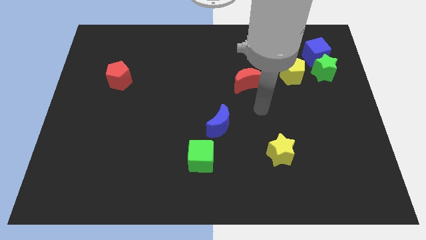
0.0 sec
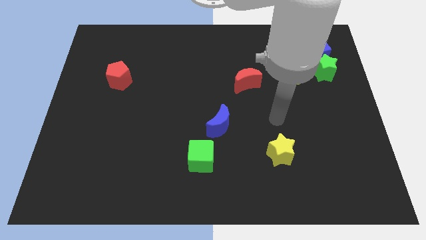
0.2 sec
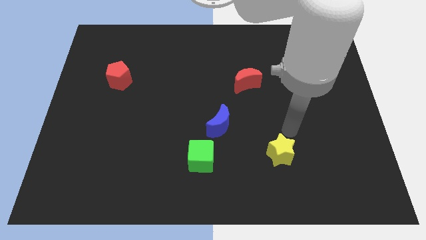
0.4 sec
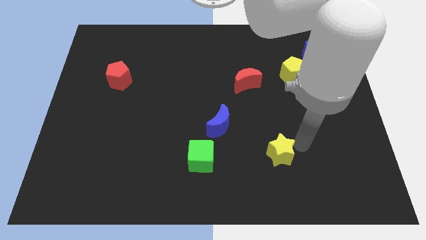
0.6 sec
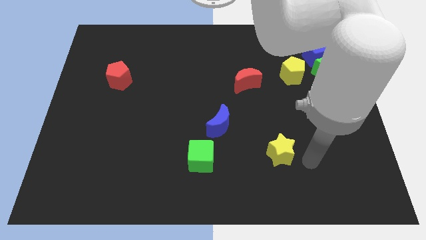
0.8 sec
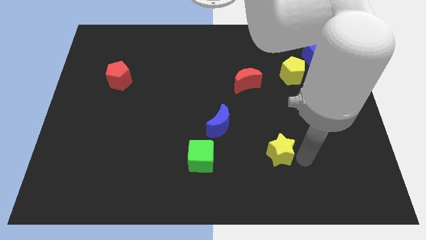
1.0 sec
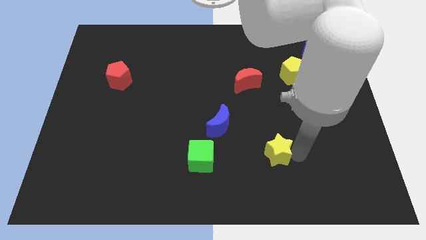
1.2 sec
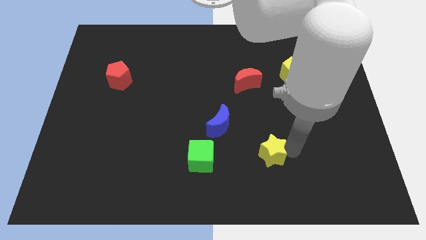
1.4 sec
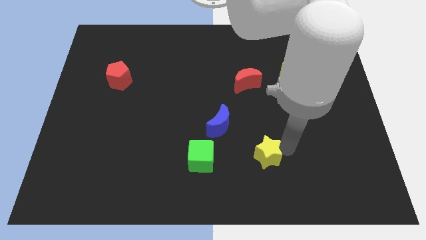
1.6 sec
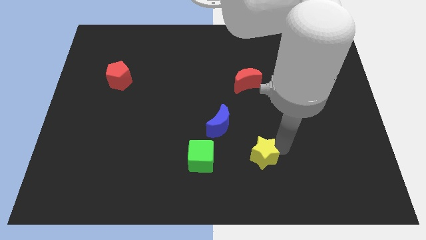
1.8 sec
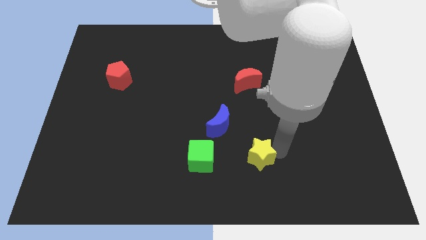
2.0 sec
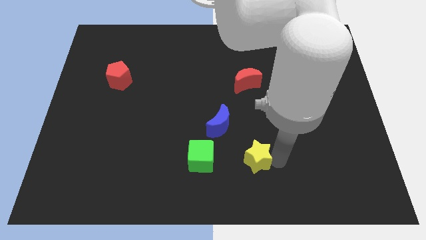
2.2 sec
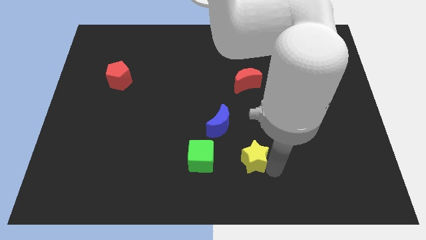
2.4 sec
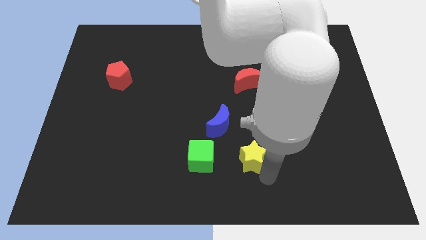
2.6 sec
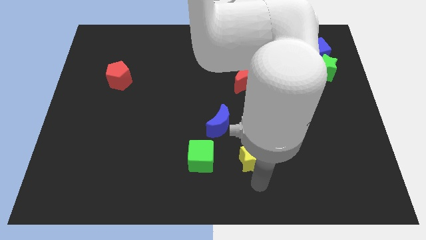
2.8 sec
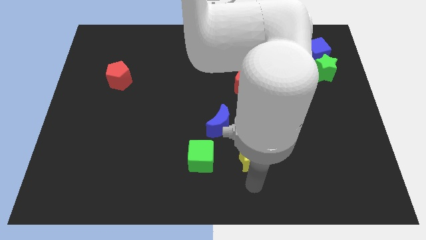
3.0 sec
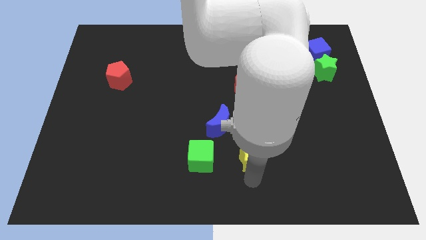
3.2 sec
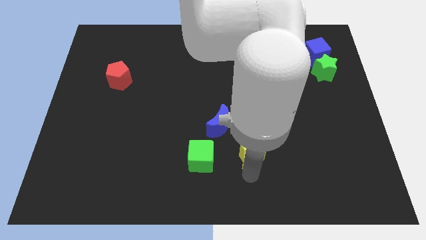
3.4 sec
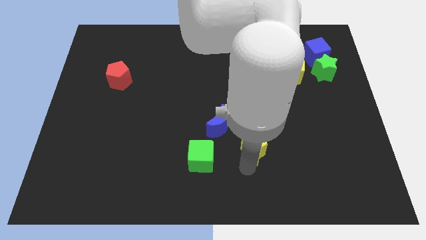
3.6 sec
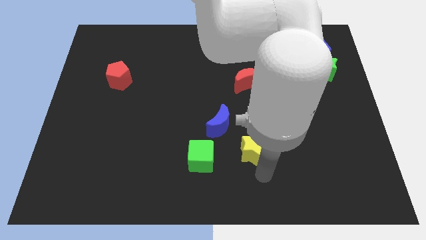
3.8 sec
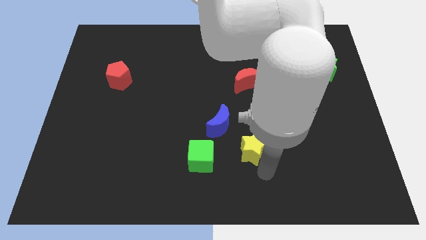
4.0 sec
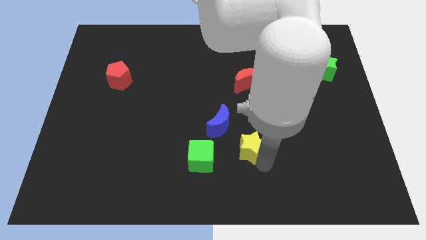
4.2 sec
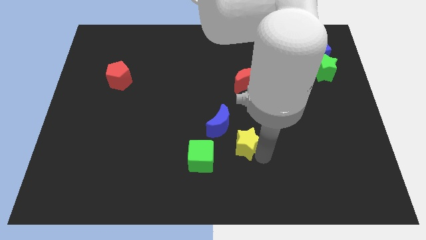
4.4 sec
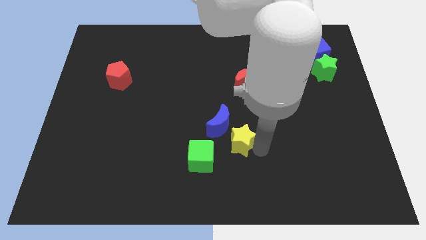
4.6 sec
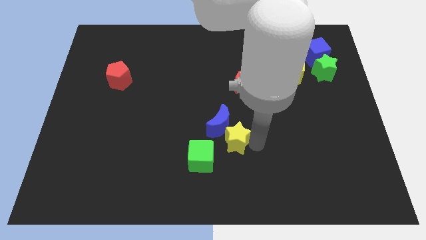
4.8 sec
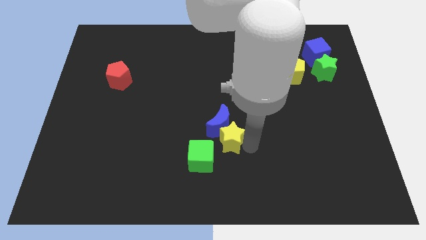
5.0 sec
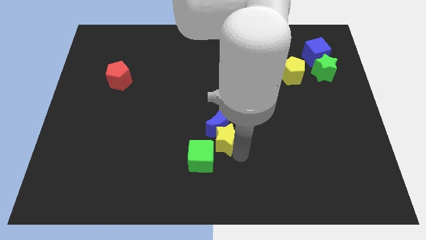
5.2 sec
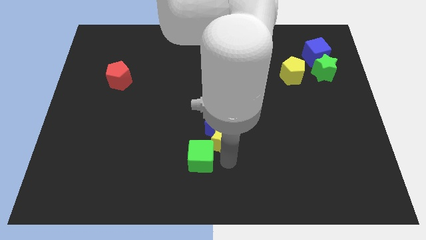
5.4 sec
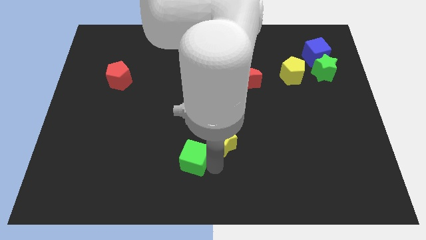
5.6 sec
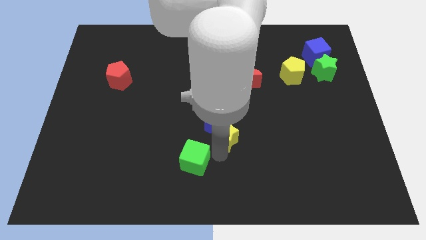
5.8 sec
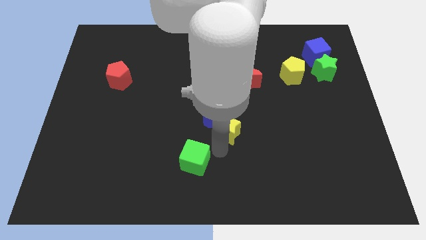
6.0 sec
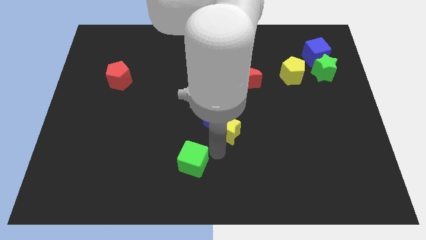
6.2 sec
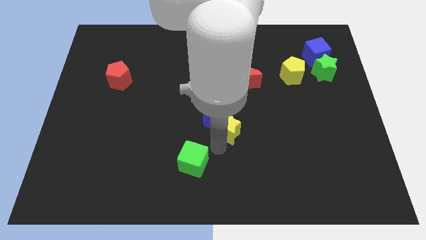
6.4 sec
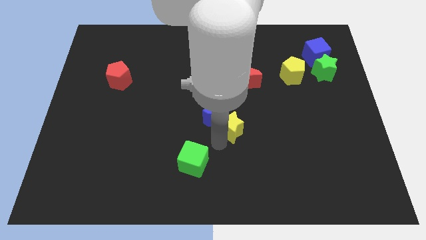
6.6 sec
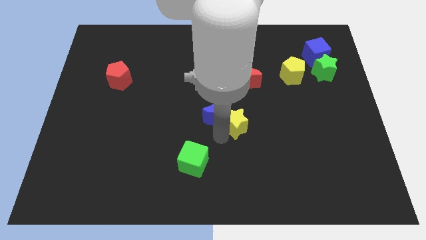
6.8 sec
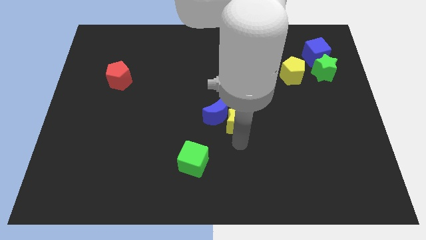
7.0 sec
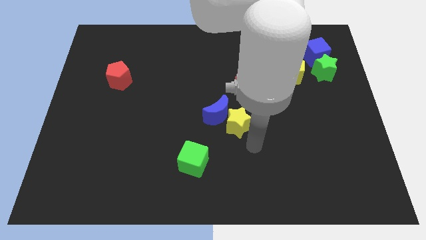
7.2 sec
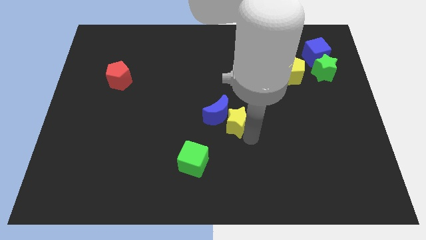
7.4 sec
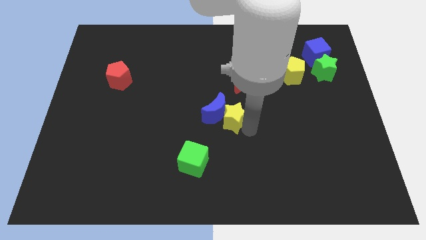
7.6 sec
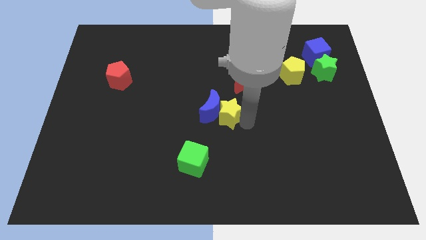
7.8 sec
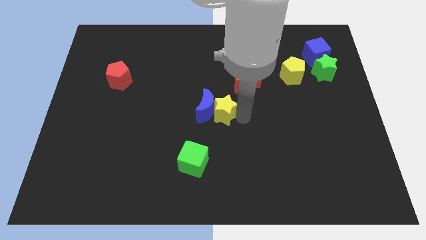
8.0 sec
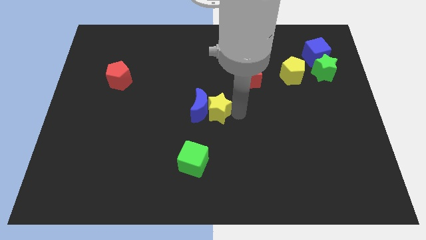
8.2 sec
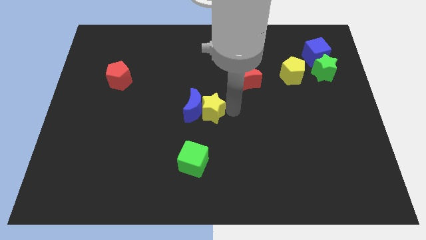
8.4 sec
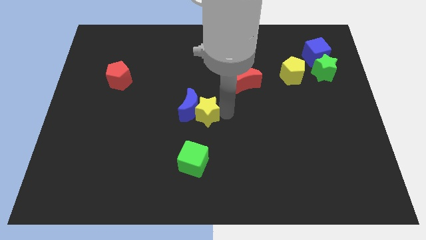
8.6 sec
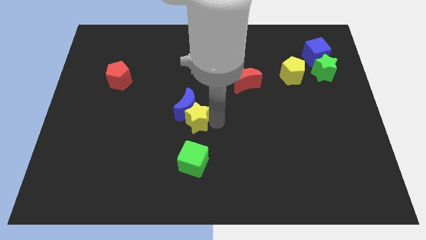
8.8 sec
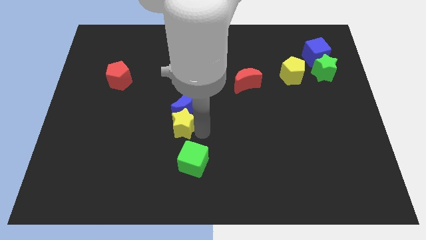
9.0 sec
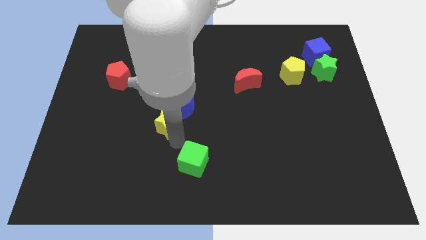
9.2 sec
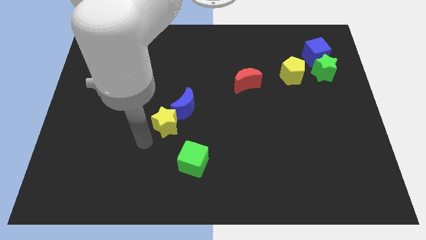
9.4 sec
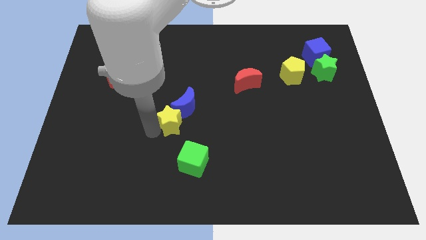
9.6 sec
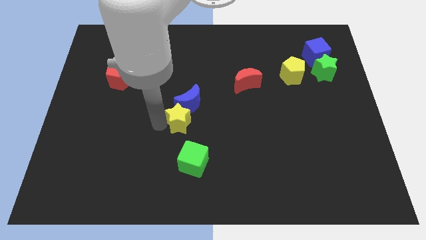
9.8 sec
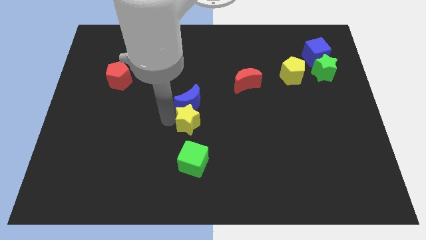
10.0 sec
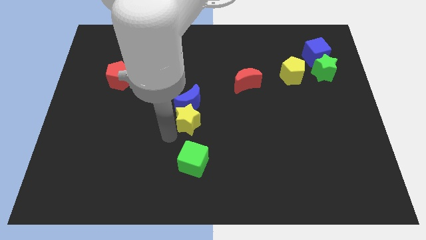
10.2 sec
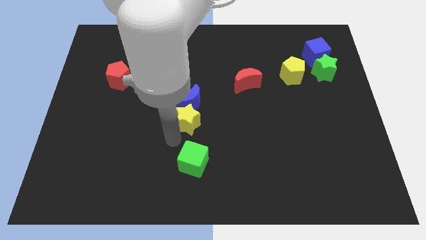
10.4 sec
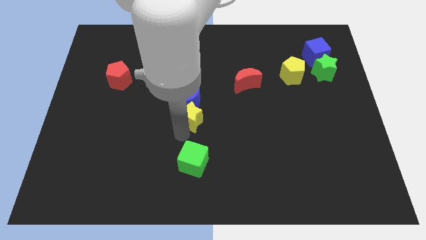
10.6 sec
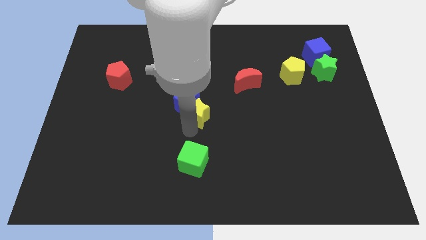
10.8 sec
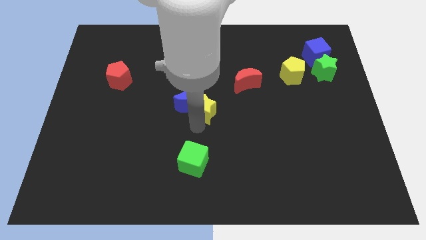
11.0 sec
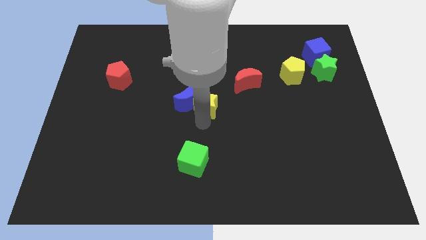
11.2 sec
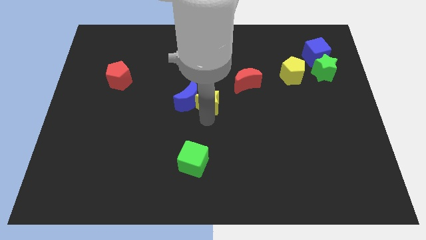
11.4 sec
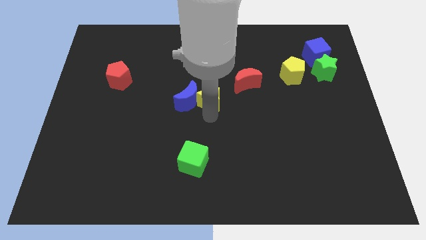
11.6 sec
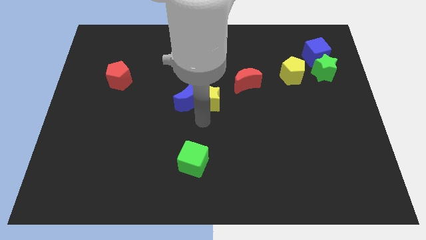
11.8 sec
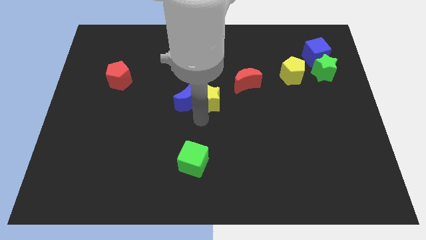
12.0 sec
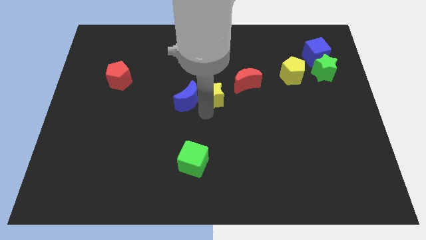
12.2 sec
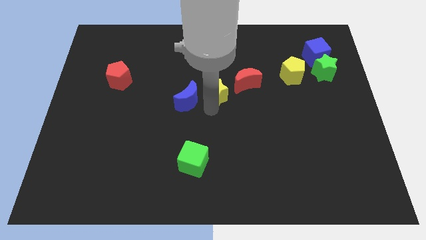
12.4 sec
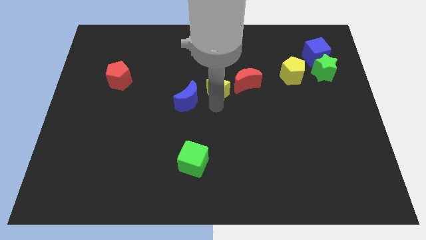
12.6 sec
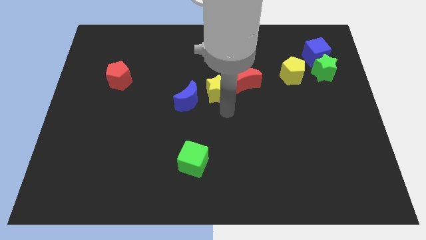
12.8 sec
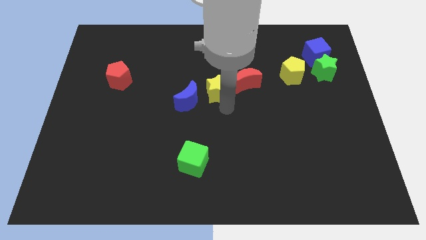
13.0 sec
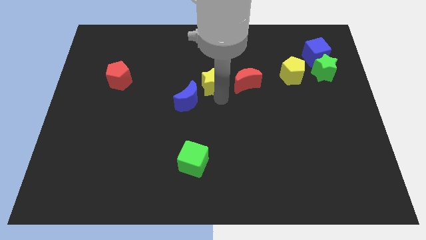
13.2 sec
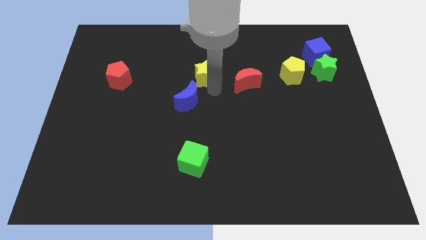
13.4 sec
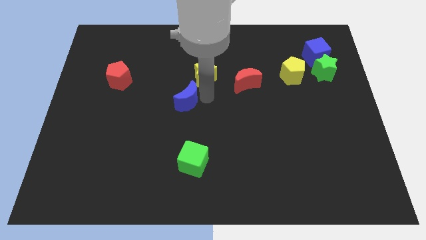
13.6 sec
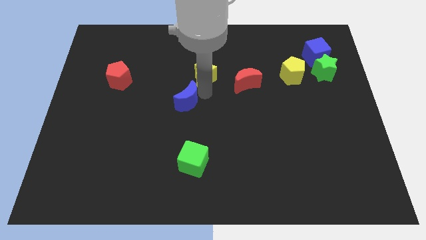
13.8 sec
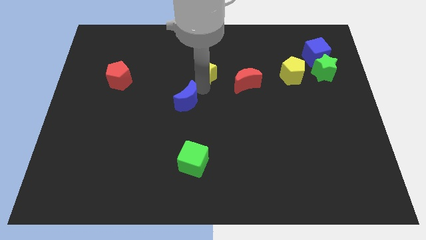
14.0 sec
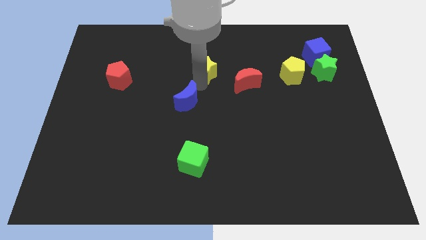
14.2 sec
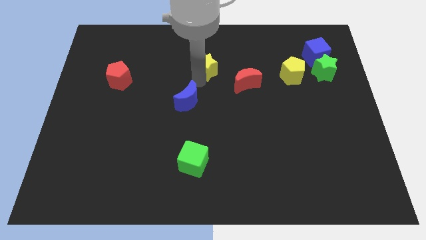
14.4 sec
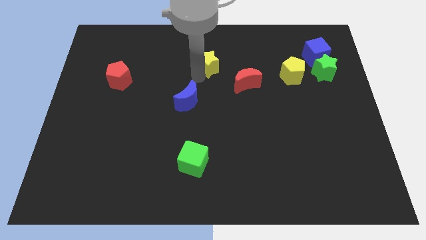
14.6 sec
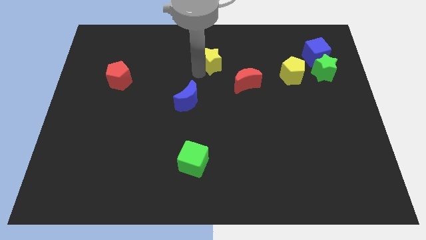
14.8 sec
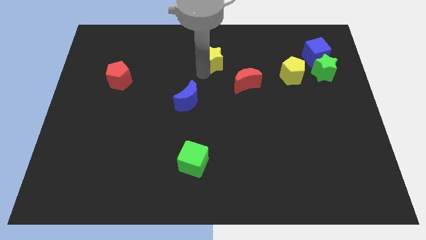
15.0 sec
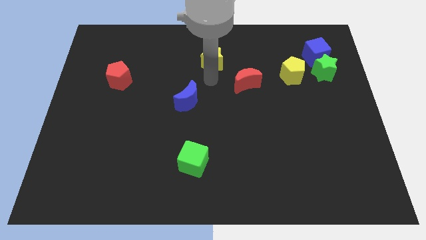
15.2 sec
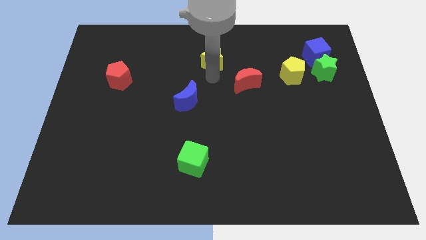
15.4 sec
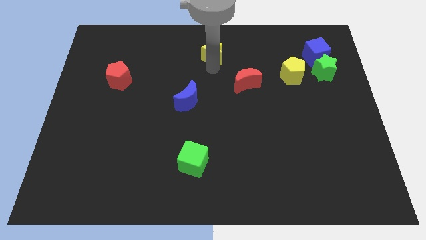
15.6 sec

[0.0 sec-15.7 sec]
push the yellow star to the top

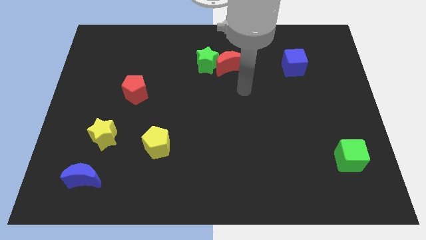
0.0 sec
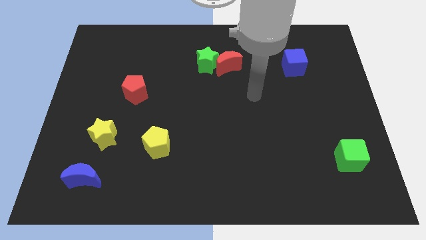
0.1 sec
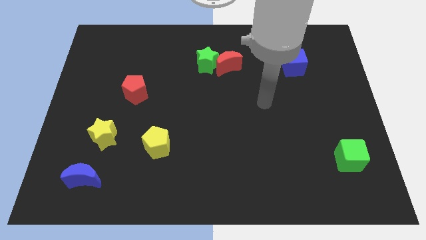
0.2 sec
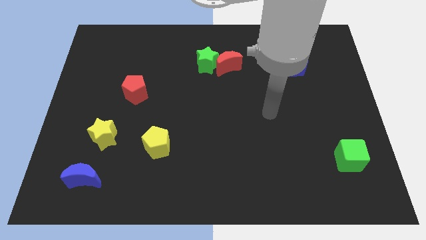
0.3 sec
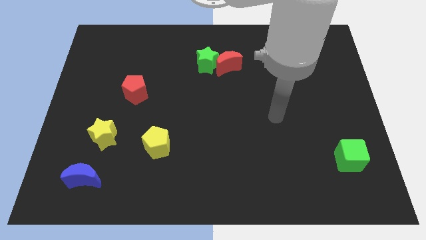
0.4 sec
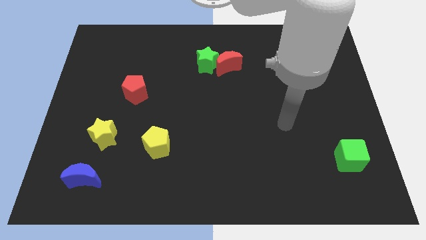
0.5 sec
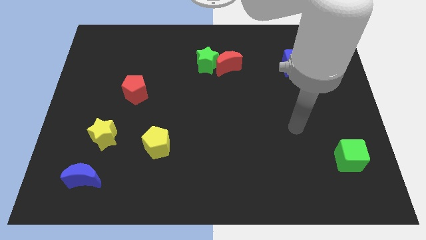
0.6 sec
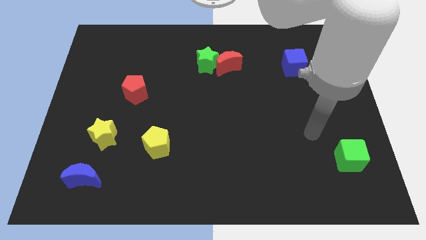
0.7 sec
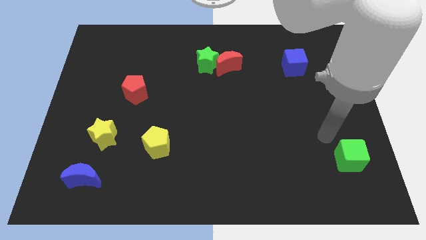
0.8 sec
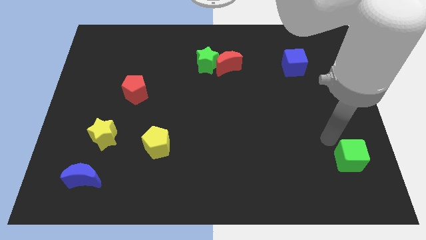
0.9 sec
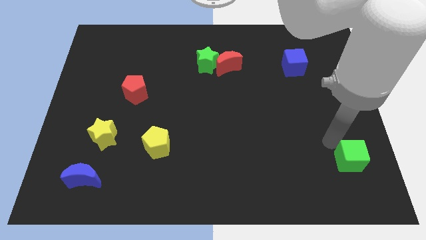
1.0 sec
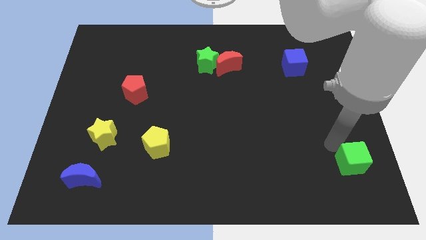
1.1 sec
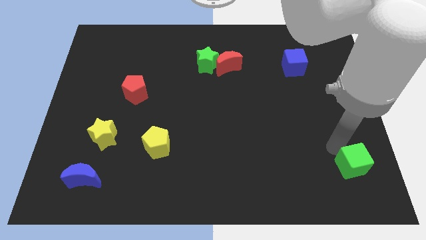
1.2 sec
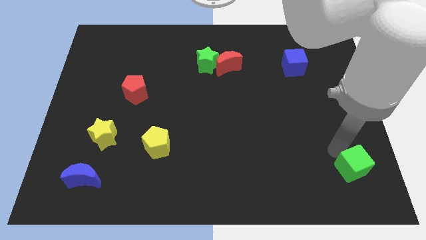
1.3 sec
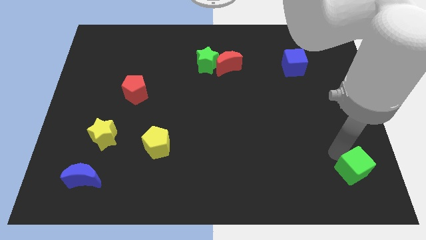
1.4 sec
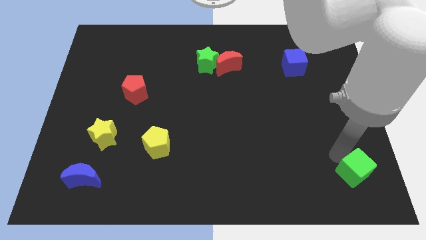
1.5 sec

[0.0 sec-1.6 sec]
move the green cube to the bottom right of the board
